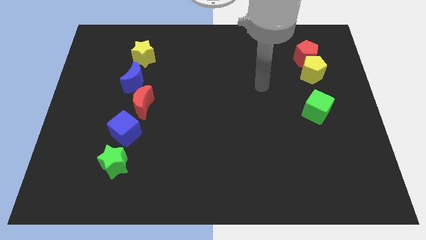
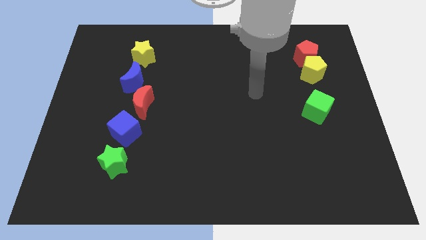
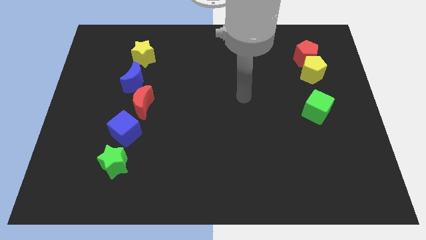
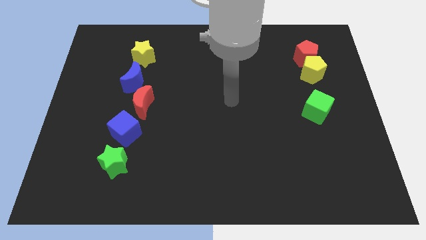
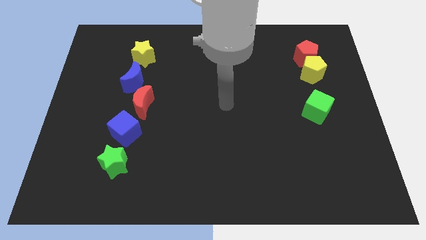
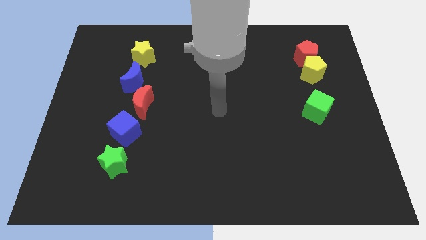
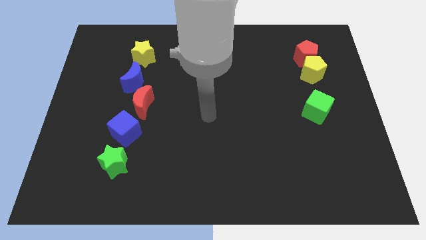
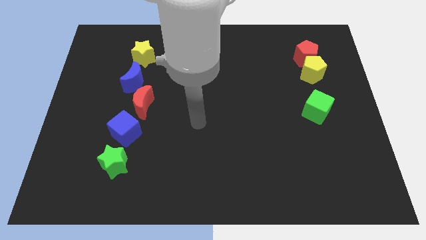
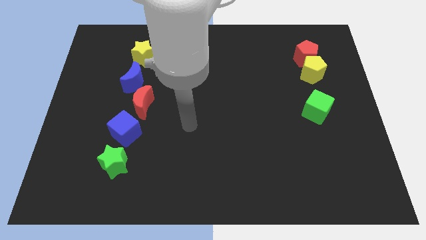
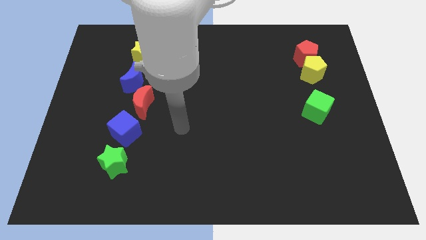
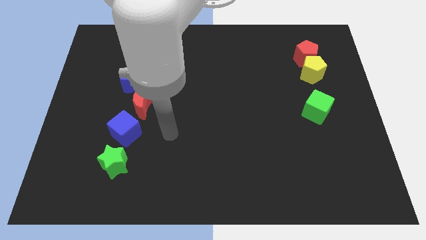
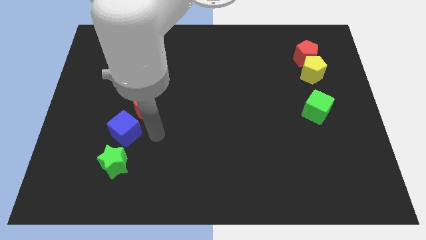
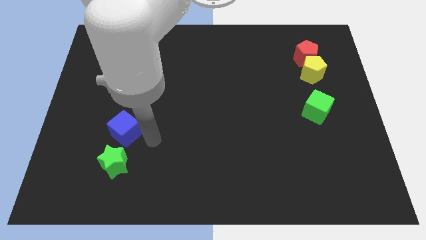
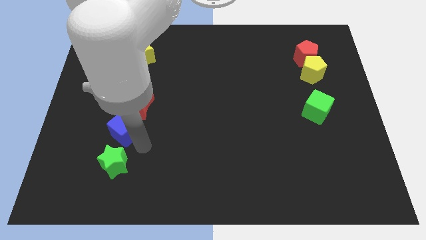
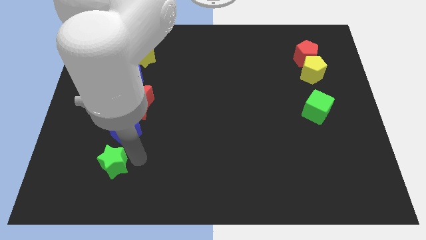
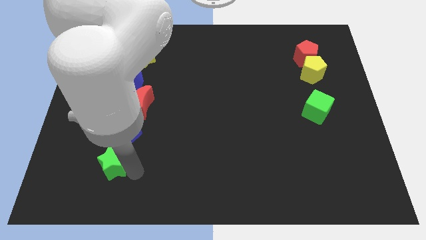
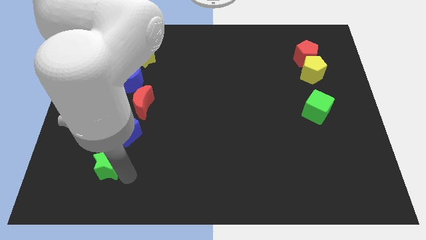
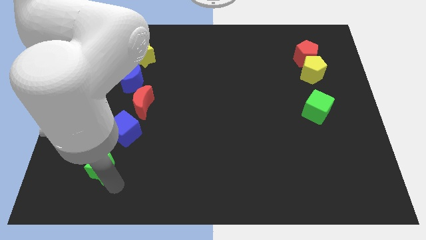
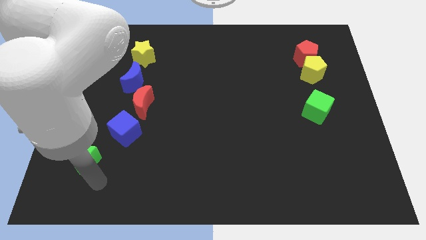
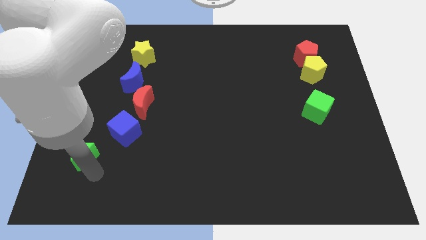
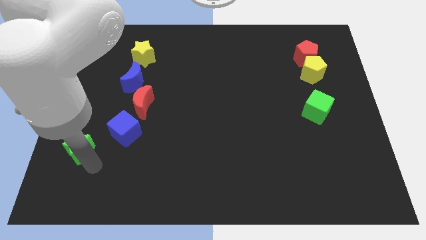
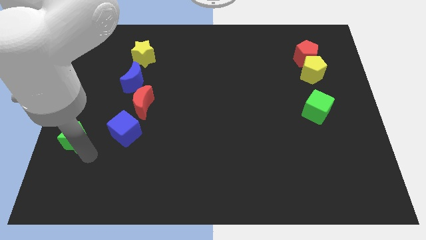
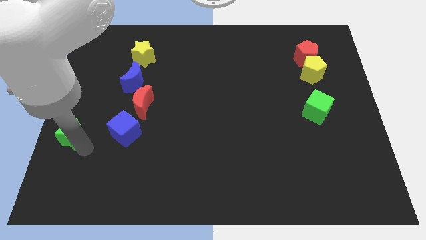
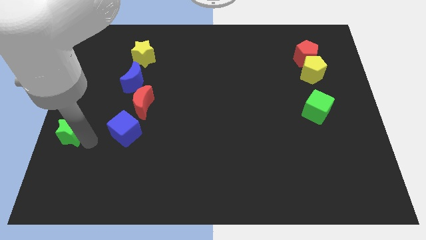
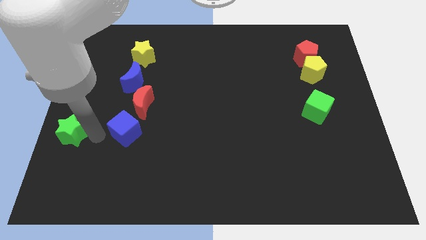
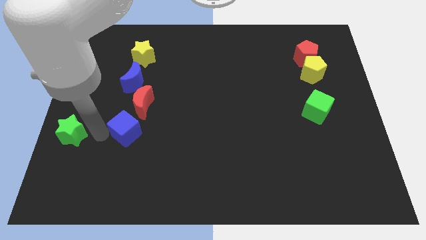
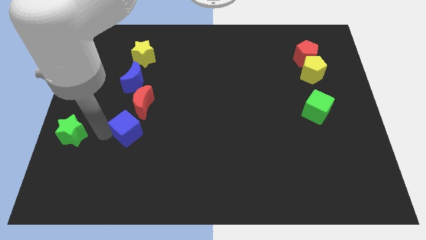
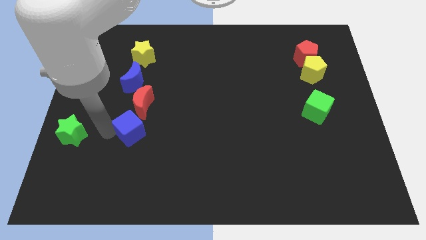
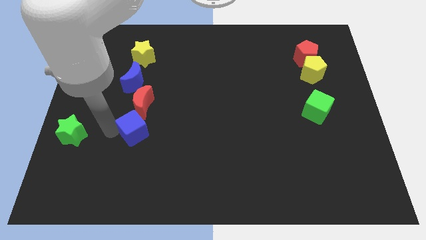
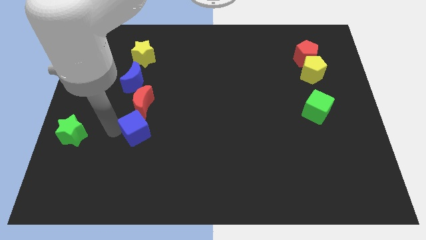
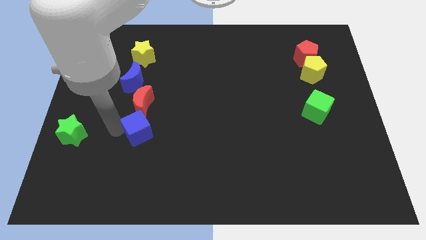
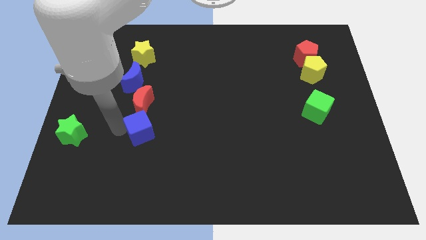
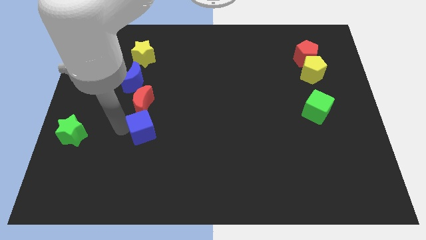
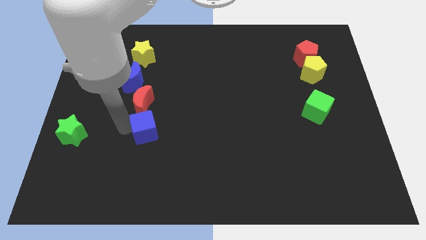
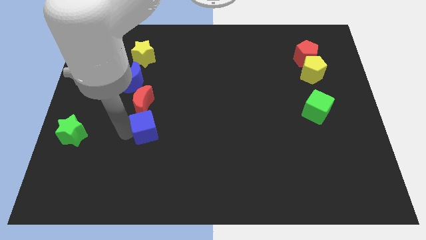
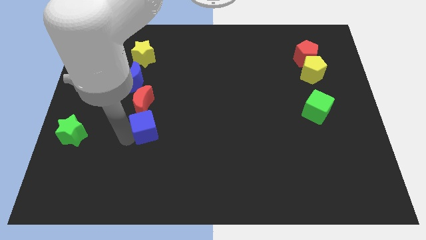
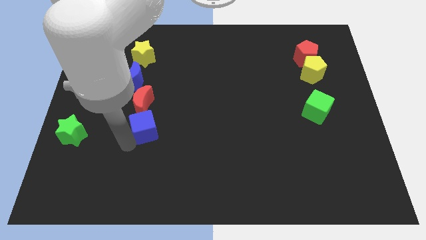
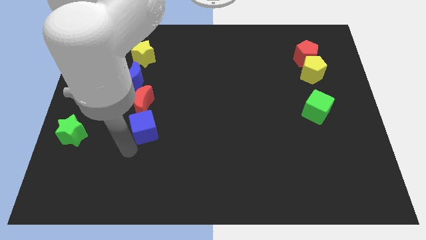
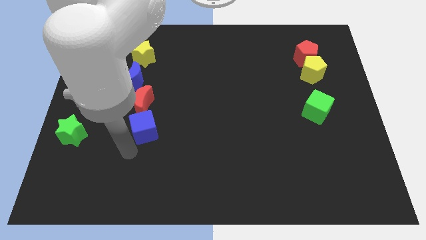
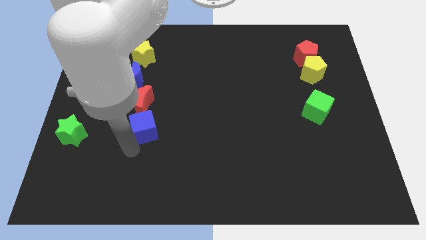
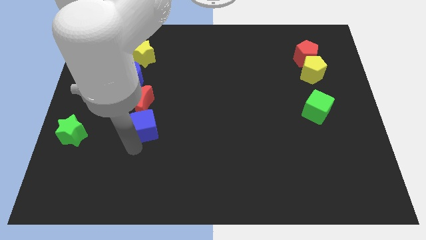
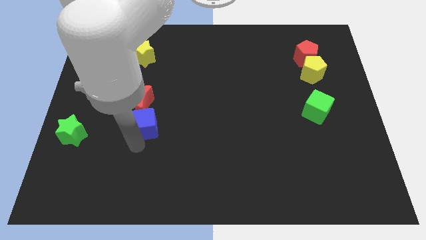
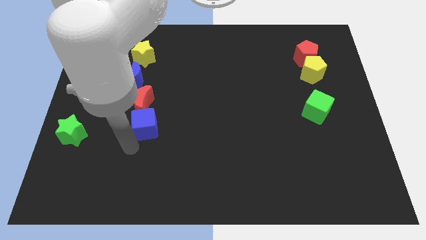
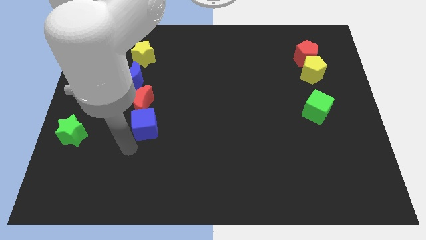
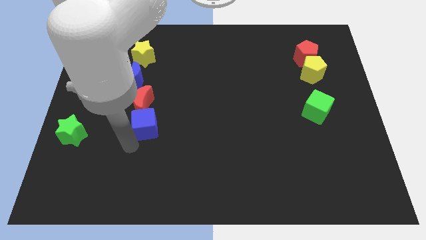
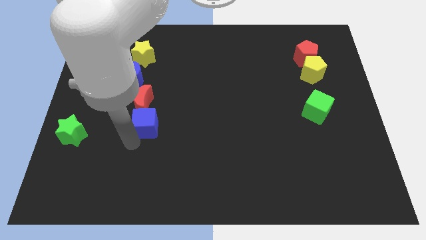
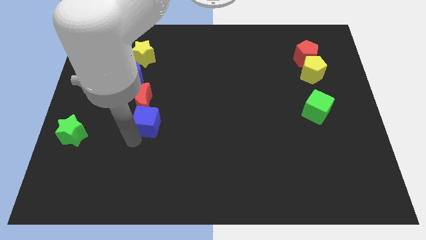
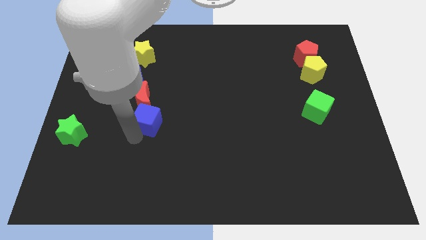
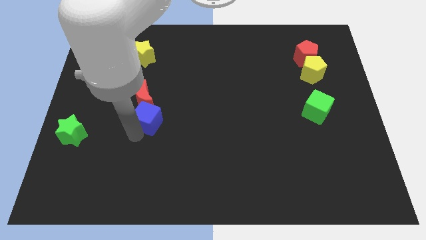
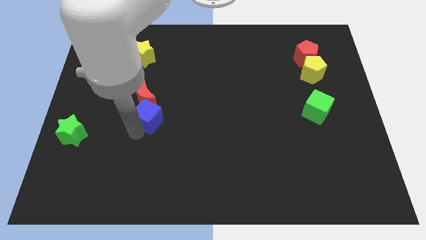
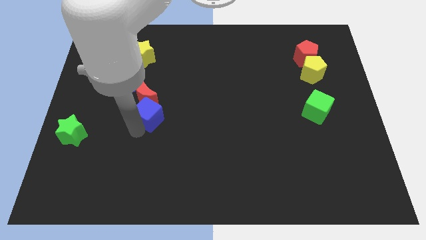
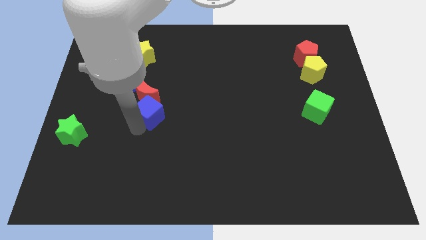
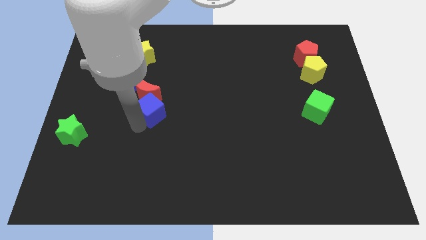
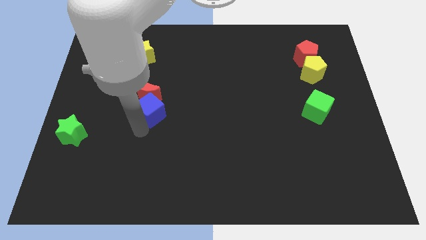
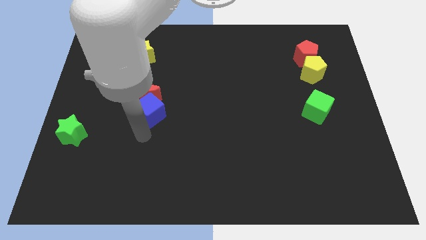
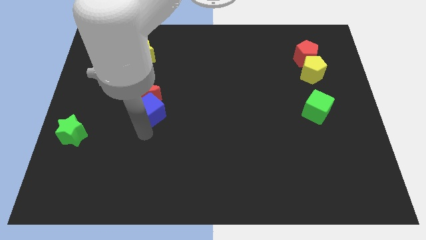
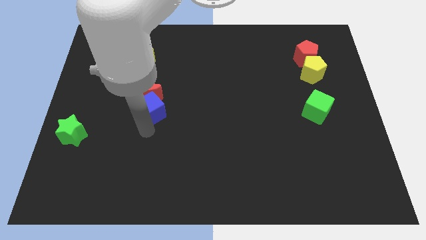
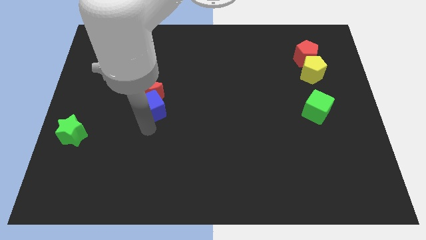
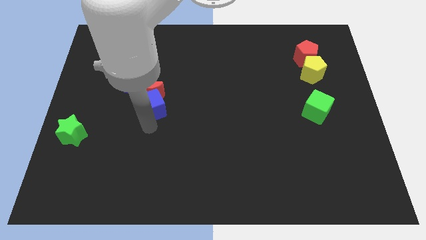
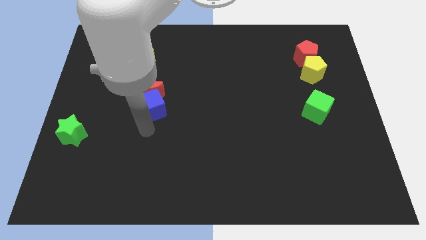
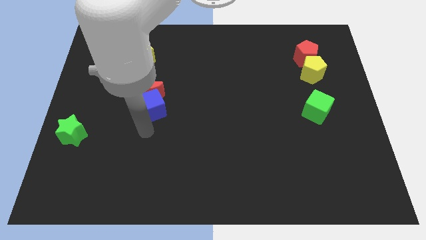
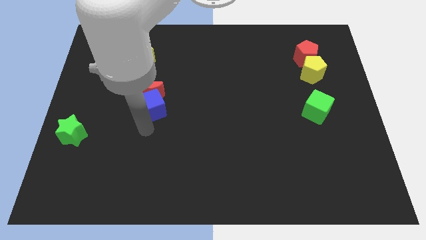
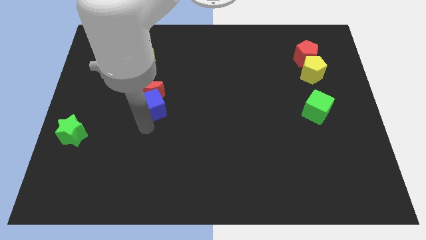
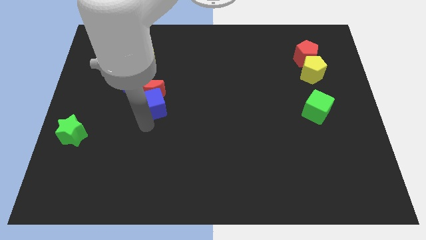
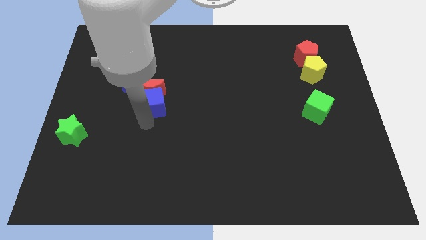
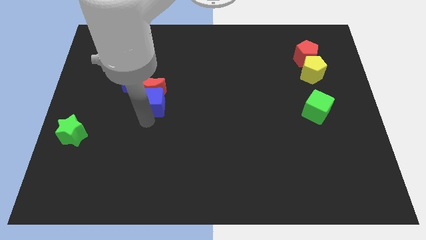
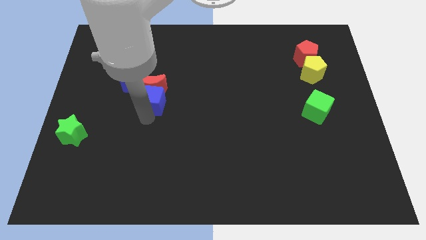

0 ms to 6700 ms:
move the blue cube slightly upwards

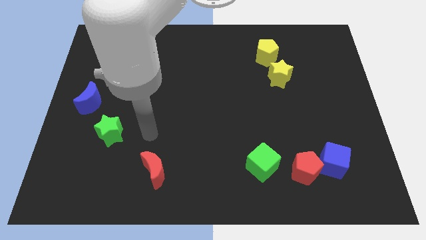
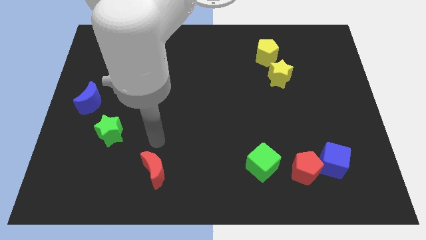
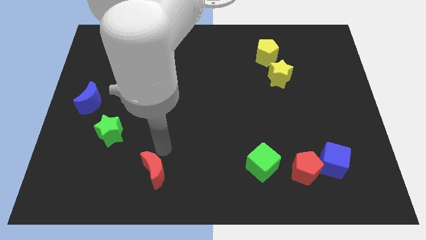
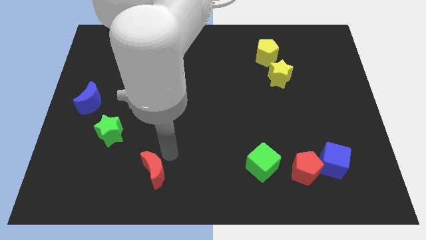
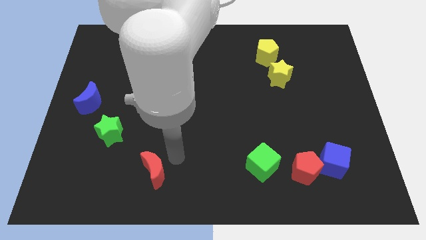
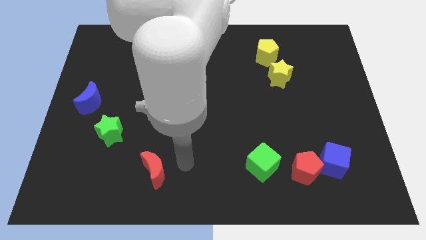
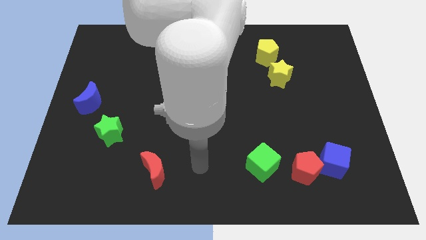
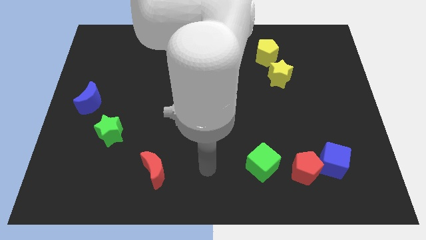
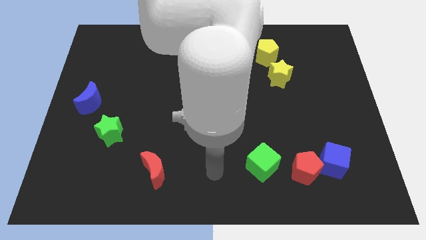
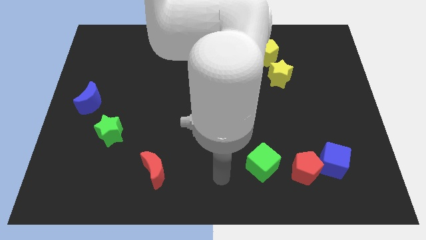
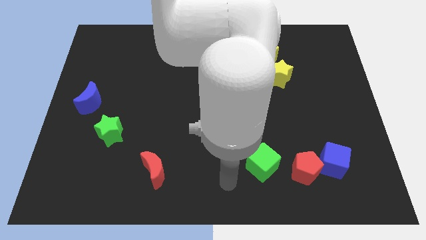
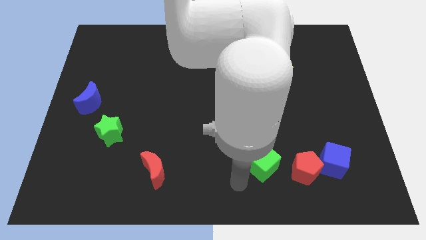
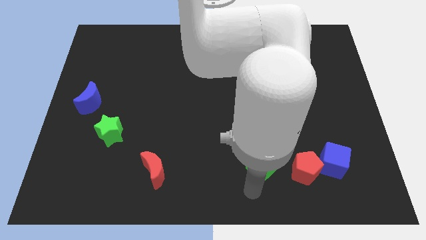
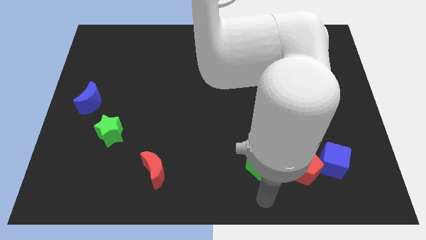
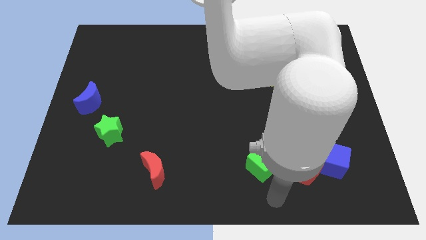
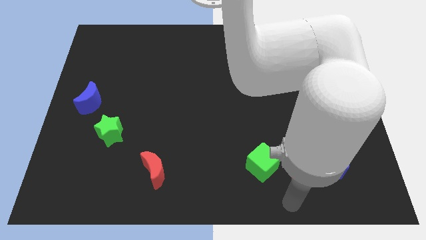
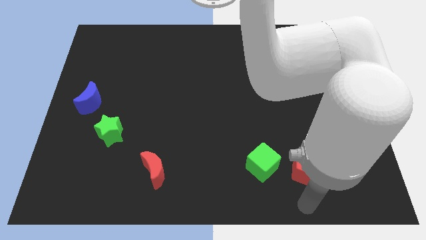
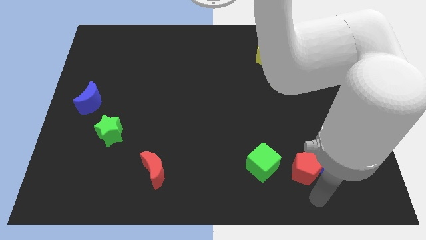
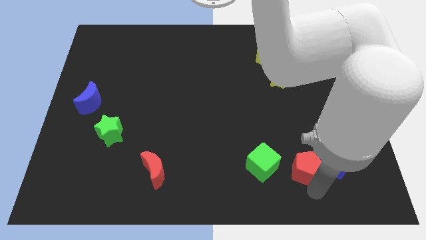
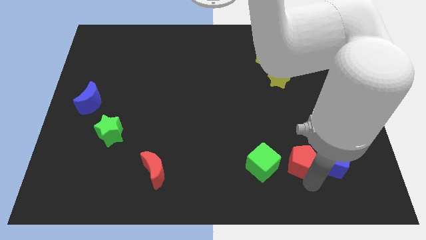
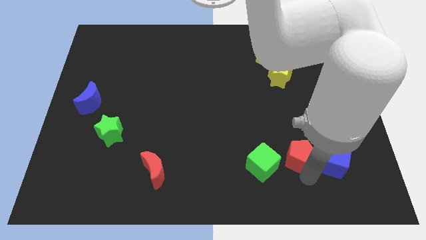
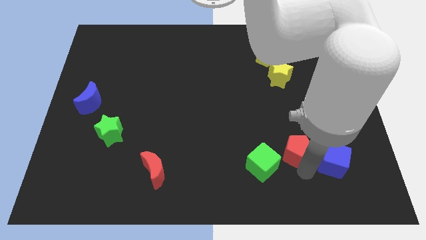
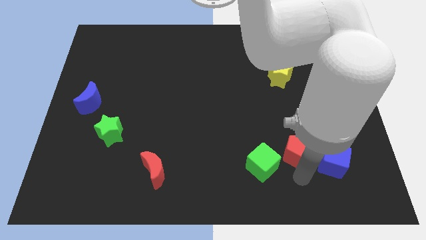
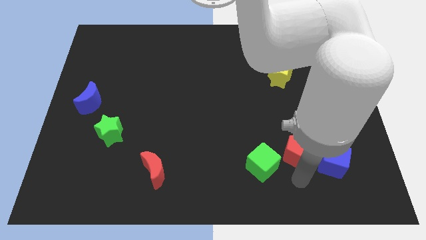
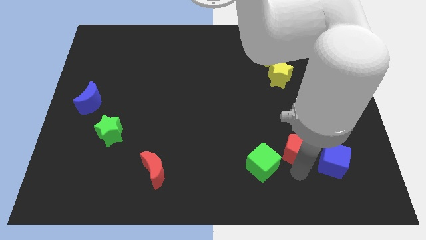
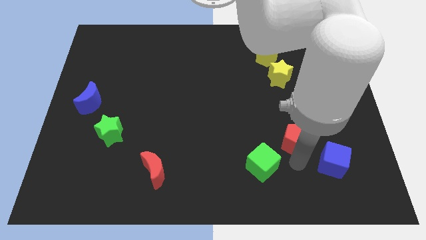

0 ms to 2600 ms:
move the red pentagon somewhat upwards
